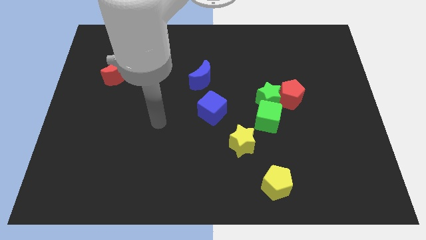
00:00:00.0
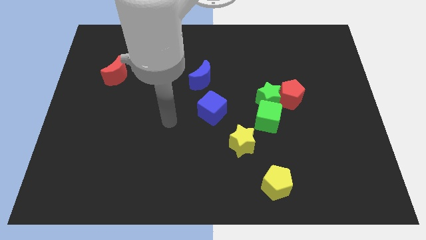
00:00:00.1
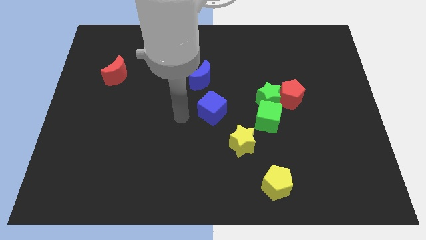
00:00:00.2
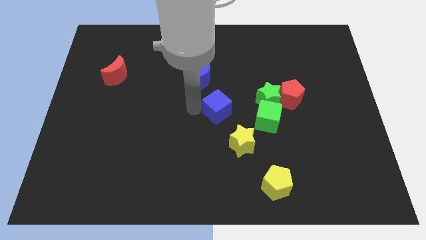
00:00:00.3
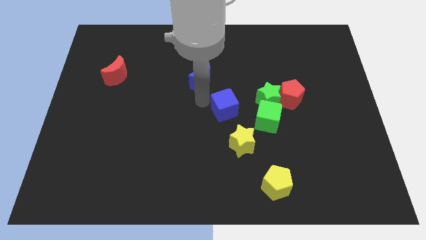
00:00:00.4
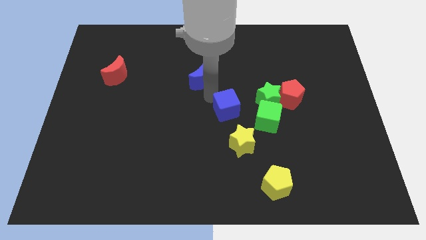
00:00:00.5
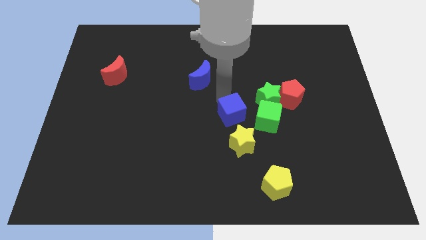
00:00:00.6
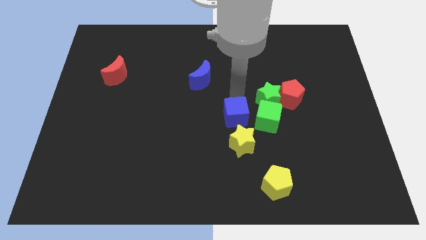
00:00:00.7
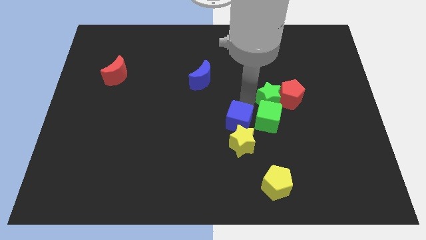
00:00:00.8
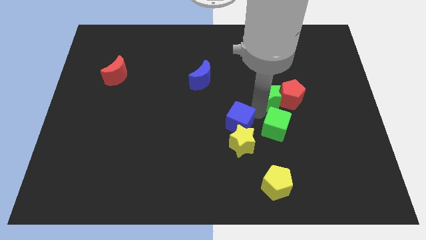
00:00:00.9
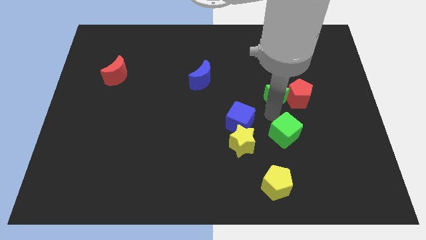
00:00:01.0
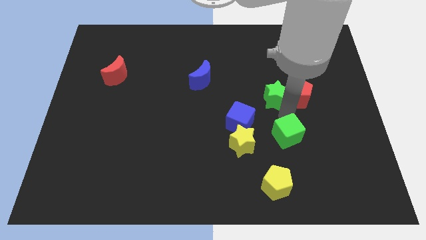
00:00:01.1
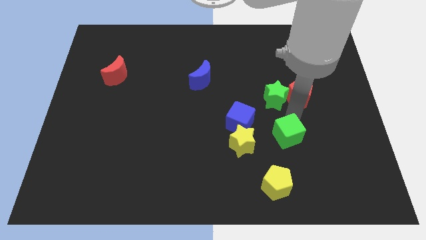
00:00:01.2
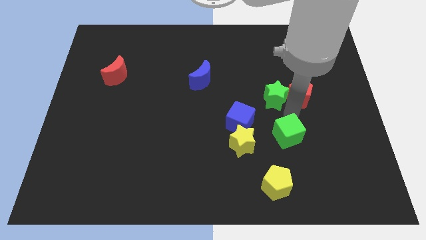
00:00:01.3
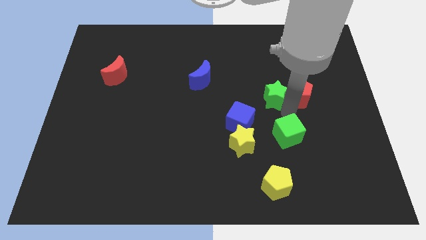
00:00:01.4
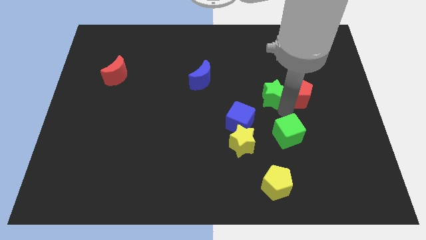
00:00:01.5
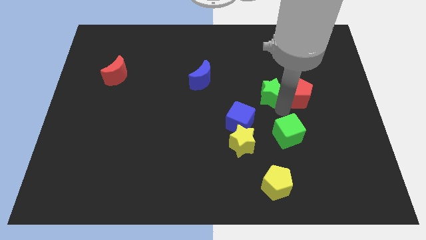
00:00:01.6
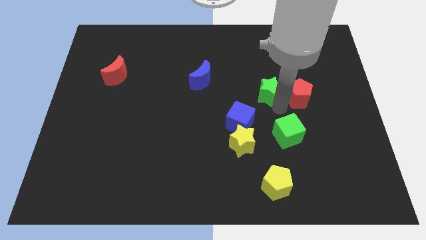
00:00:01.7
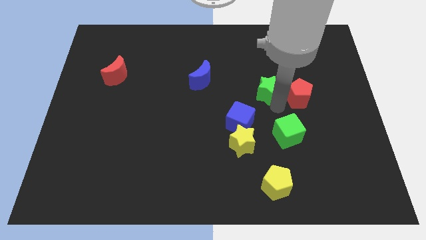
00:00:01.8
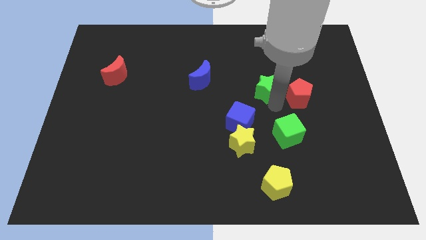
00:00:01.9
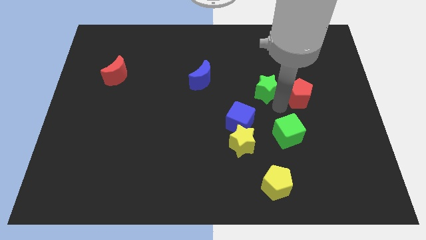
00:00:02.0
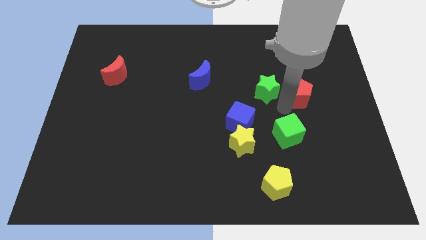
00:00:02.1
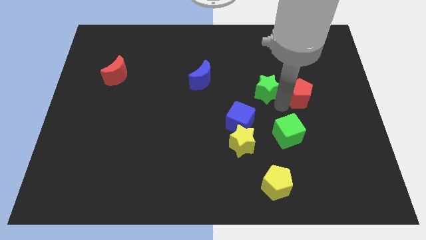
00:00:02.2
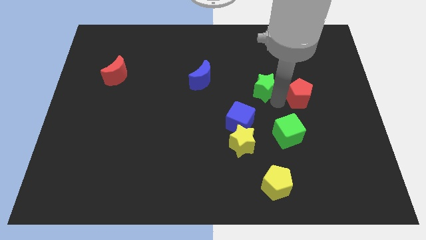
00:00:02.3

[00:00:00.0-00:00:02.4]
separate the green star from the red pentagon and green cube

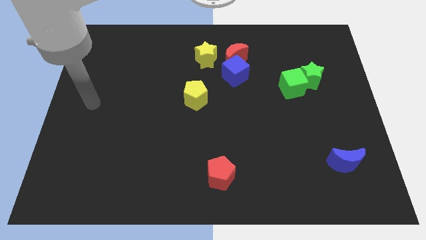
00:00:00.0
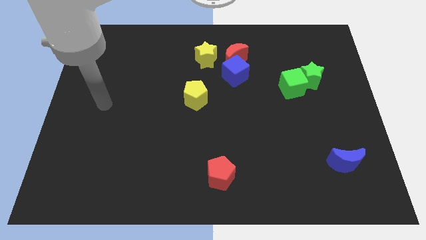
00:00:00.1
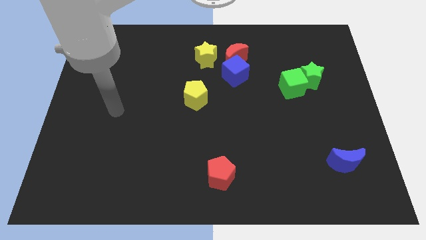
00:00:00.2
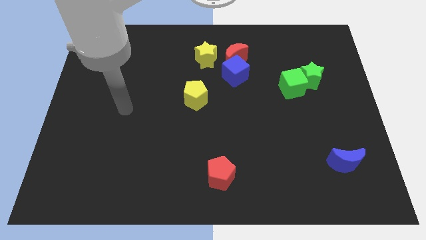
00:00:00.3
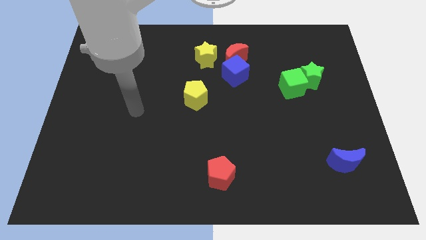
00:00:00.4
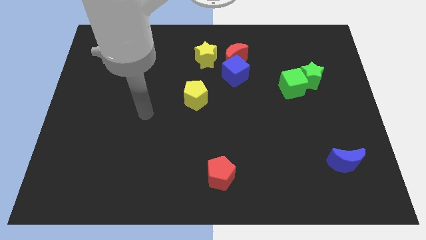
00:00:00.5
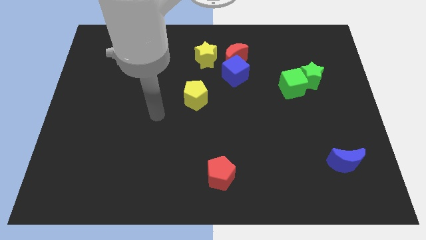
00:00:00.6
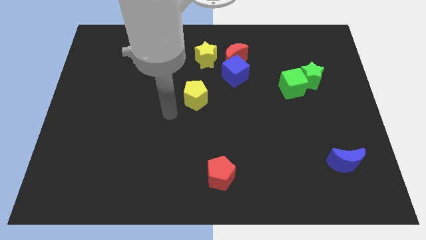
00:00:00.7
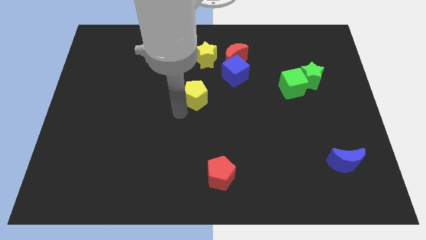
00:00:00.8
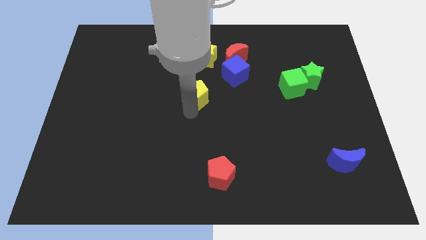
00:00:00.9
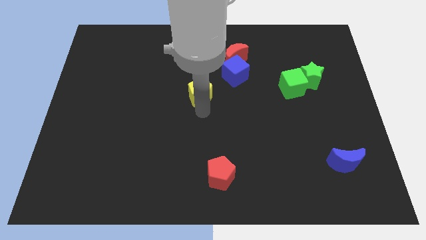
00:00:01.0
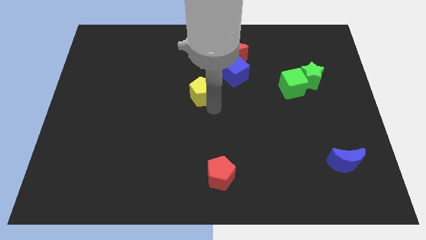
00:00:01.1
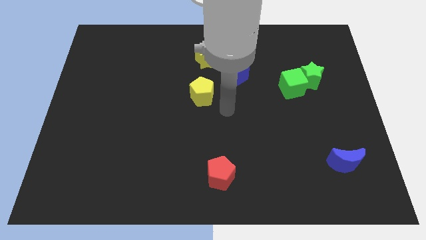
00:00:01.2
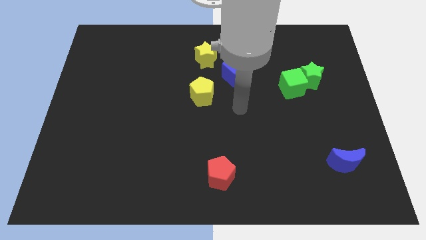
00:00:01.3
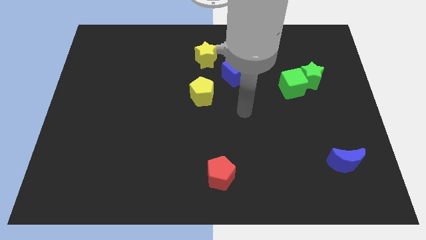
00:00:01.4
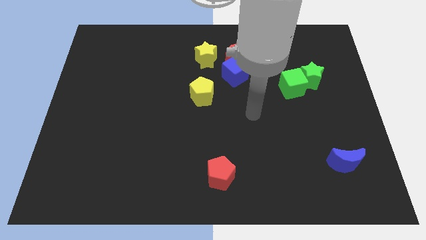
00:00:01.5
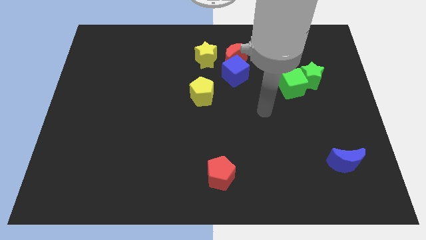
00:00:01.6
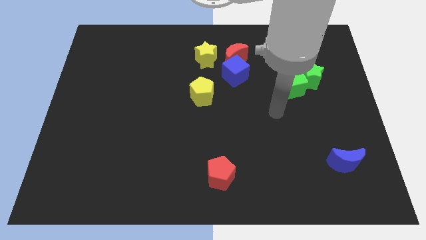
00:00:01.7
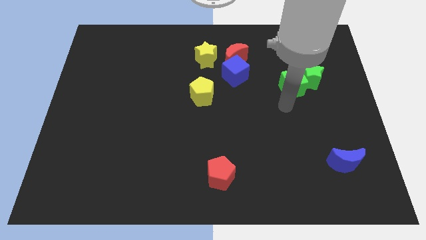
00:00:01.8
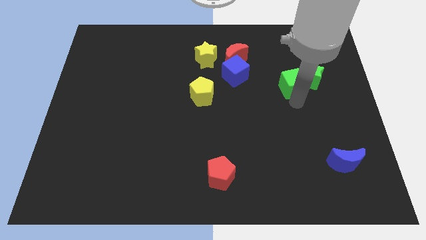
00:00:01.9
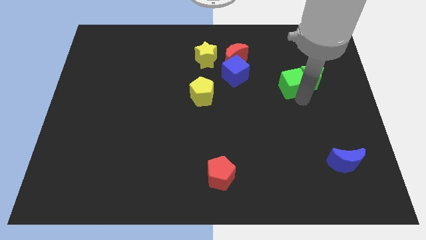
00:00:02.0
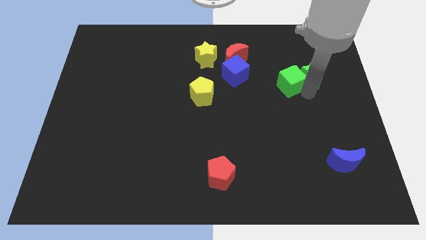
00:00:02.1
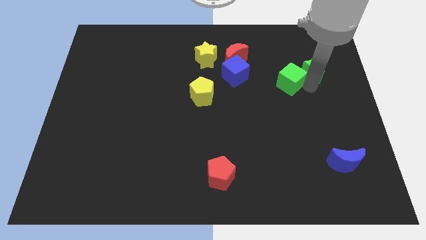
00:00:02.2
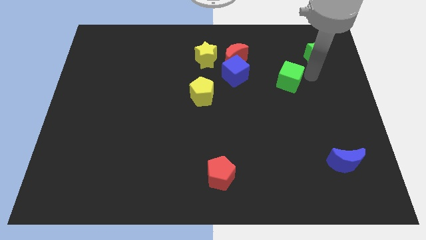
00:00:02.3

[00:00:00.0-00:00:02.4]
pull the green cube apart from the green star

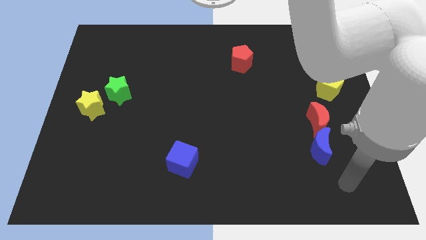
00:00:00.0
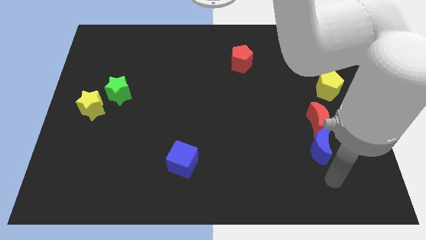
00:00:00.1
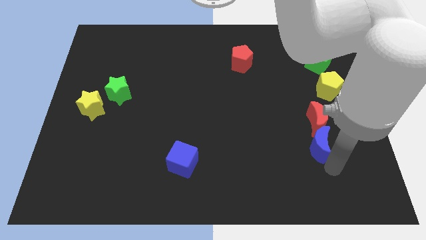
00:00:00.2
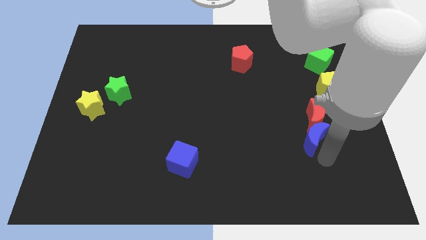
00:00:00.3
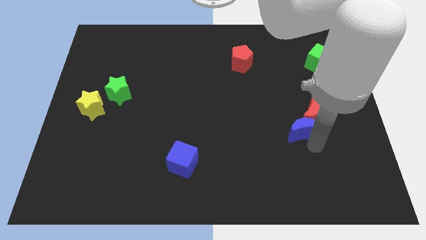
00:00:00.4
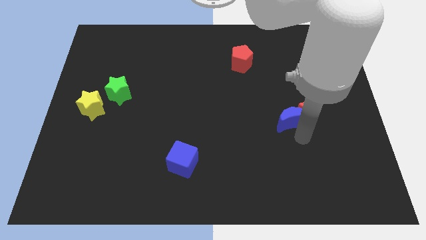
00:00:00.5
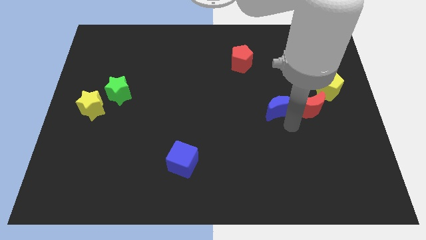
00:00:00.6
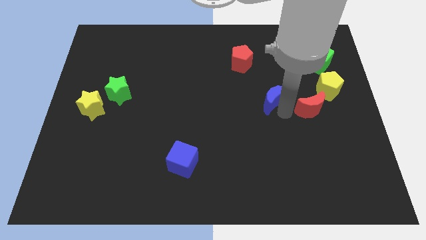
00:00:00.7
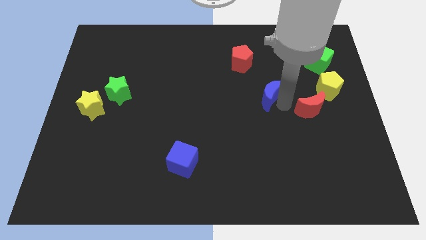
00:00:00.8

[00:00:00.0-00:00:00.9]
separate the red moon from the blue moon

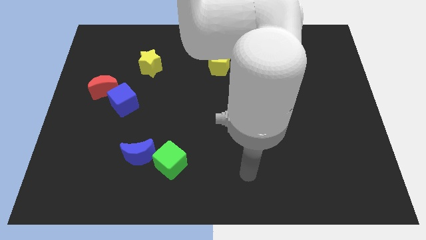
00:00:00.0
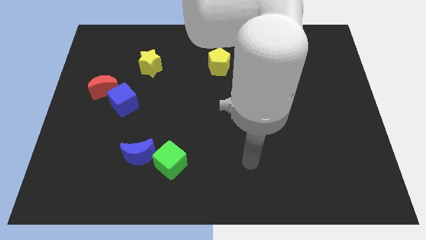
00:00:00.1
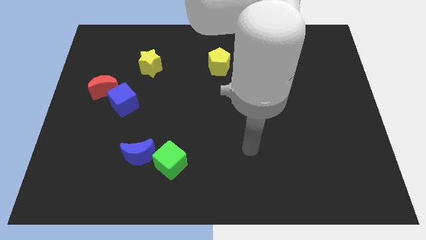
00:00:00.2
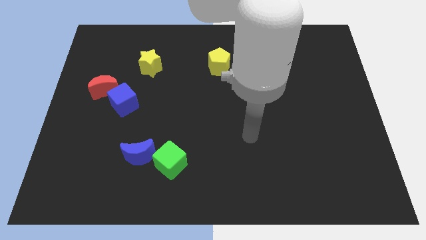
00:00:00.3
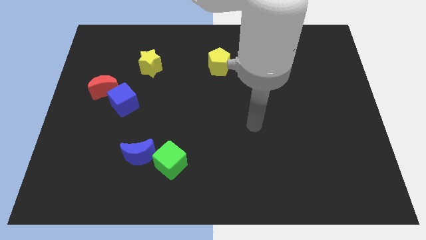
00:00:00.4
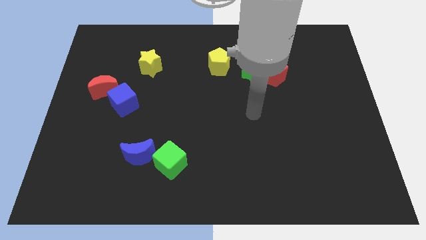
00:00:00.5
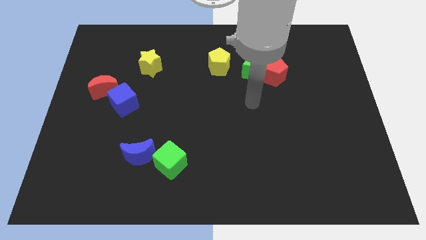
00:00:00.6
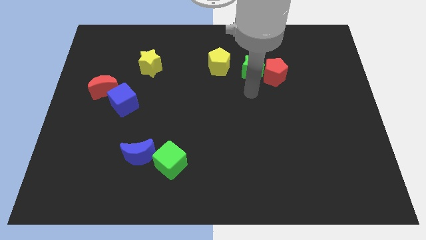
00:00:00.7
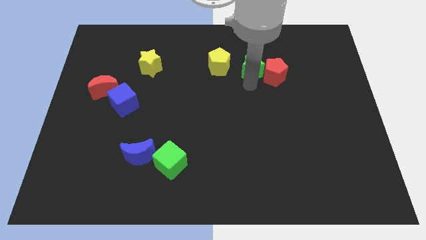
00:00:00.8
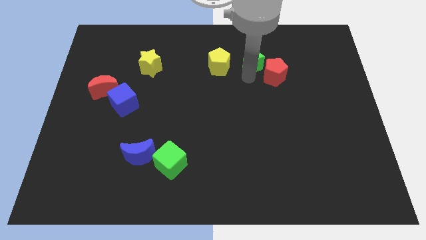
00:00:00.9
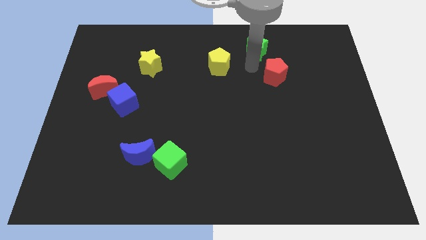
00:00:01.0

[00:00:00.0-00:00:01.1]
pull the red pentagon apart from the green star

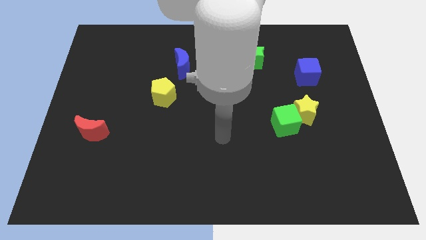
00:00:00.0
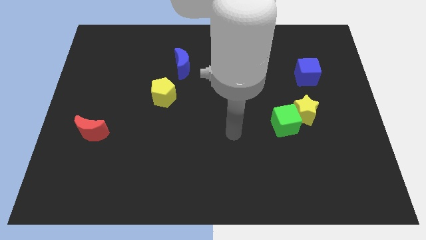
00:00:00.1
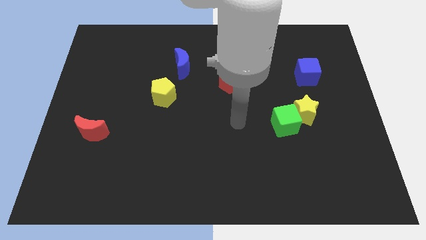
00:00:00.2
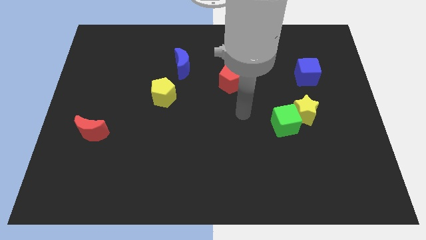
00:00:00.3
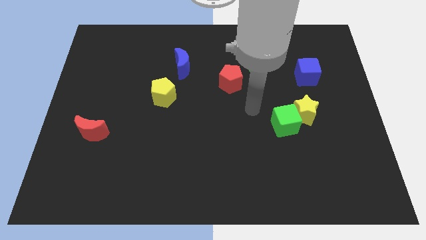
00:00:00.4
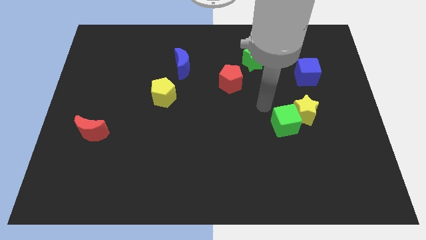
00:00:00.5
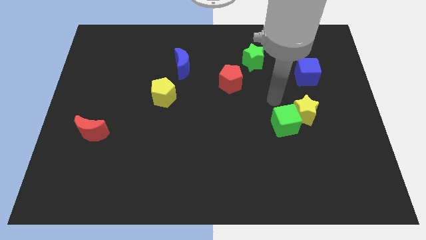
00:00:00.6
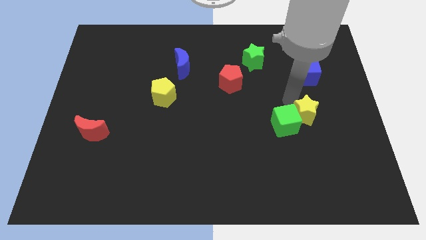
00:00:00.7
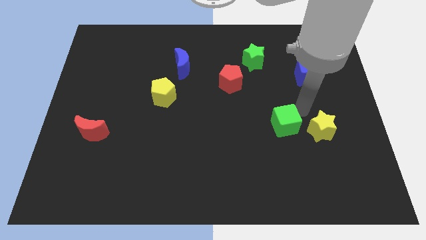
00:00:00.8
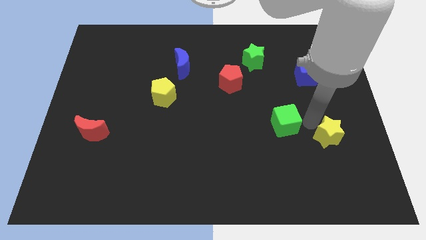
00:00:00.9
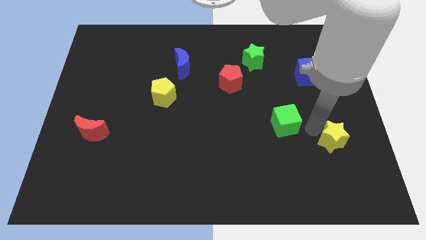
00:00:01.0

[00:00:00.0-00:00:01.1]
separate the green cube from the yellow star

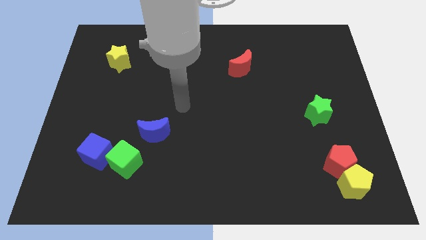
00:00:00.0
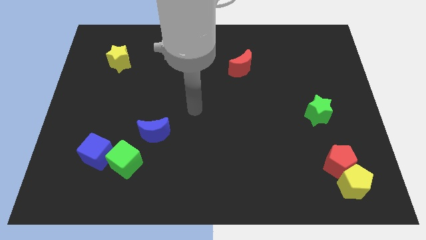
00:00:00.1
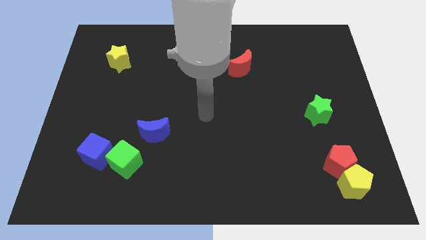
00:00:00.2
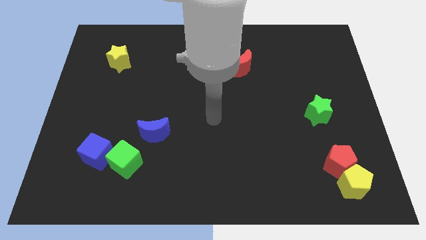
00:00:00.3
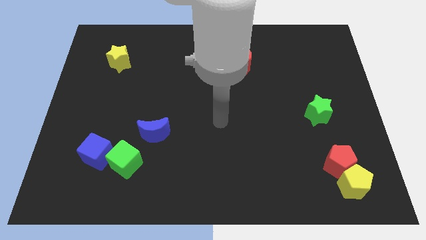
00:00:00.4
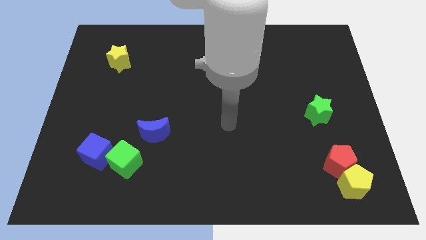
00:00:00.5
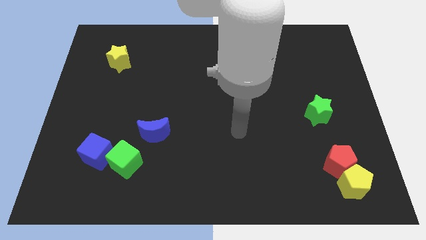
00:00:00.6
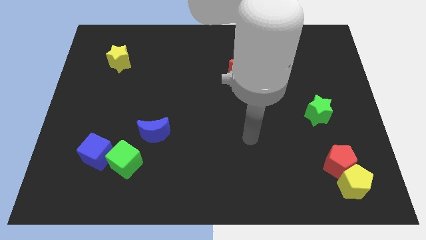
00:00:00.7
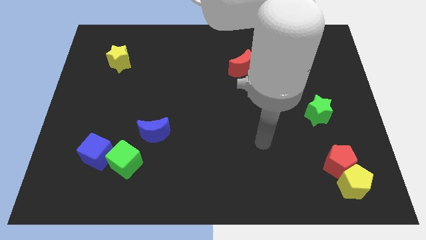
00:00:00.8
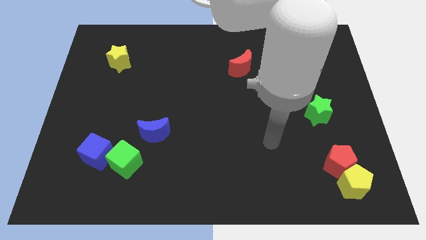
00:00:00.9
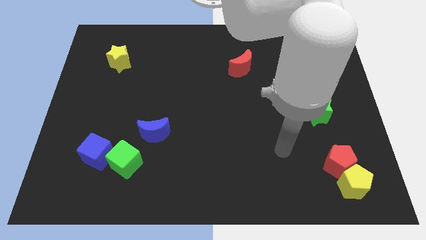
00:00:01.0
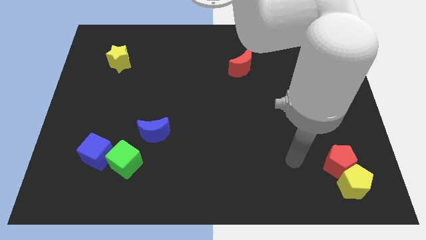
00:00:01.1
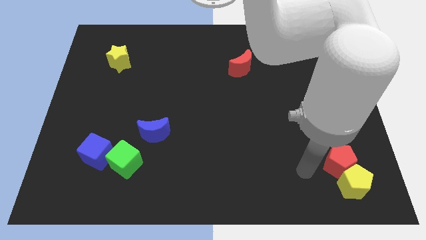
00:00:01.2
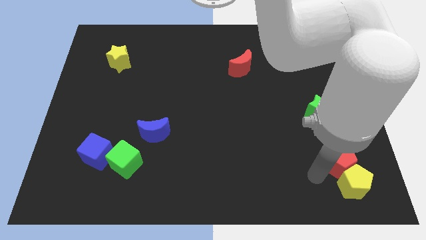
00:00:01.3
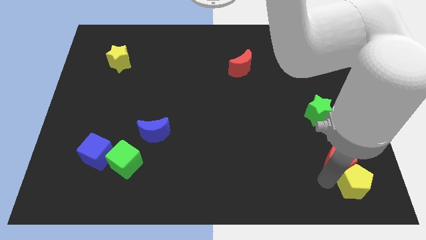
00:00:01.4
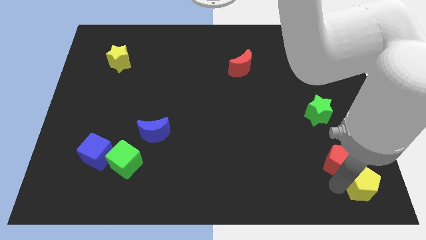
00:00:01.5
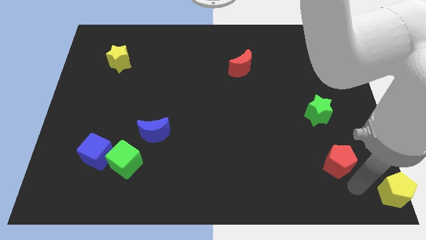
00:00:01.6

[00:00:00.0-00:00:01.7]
separate the red pentagon from the yellow pentagon
